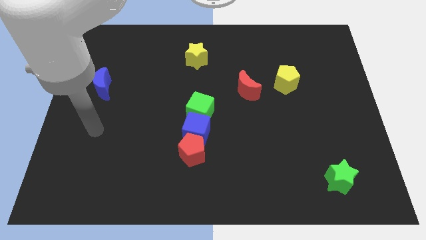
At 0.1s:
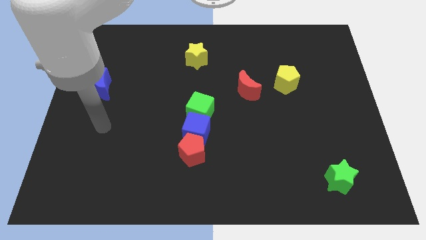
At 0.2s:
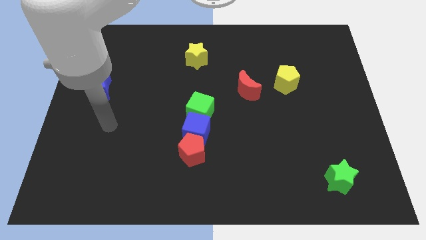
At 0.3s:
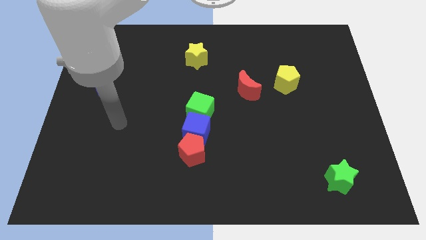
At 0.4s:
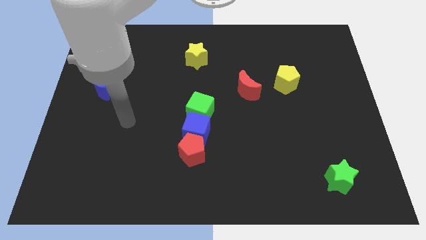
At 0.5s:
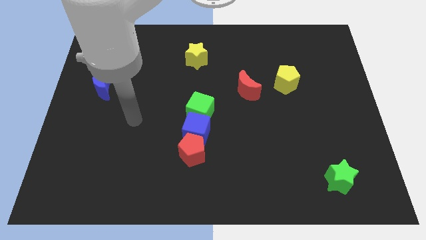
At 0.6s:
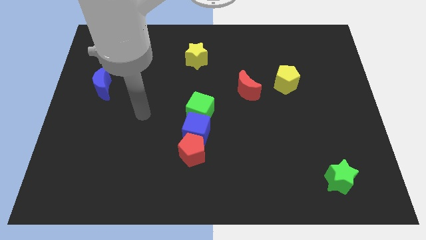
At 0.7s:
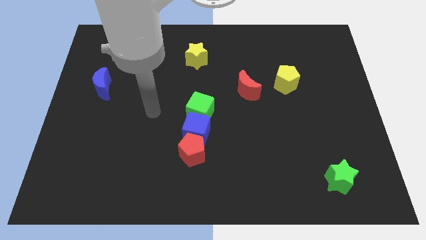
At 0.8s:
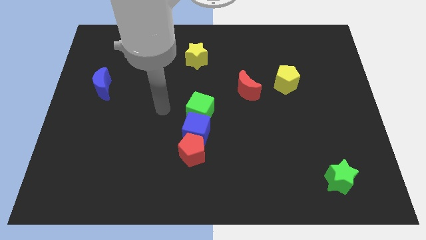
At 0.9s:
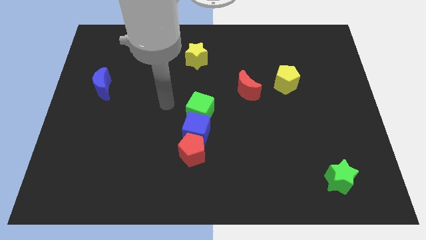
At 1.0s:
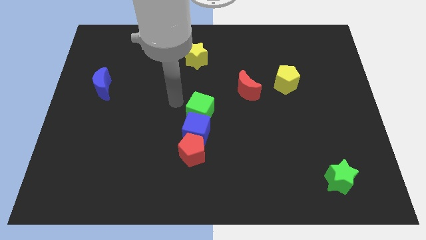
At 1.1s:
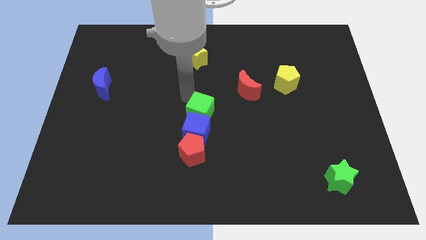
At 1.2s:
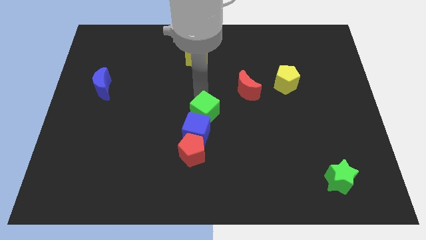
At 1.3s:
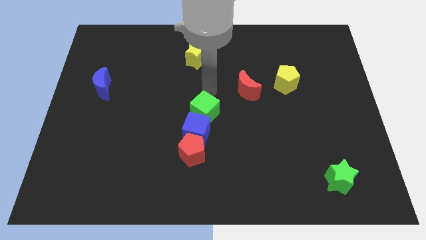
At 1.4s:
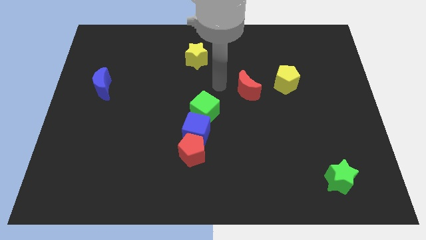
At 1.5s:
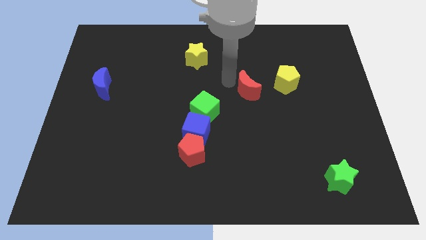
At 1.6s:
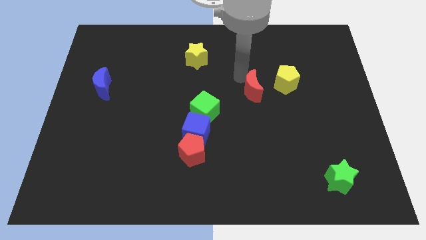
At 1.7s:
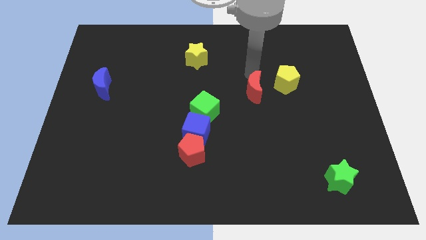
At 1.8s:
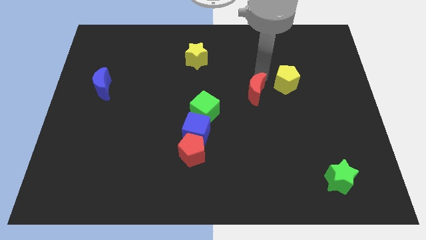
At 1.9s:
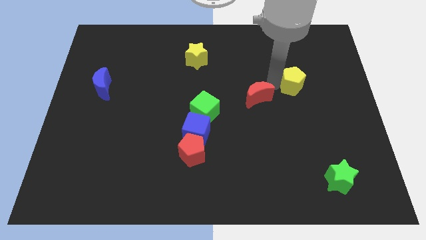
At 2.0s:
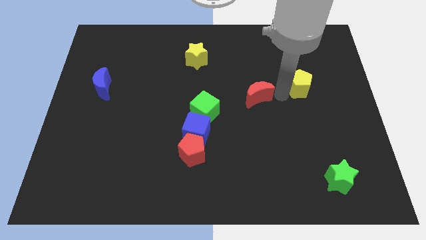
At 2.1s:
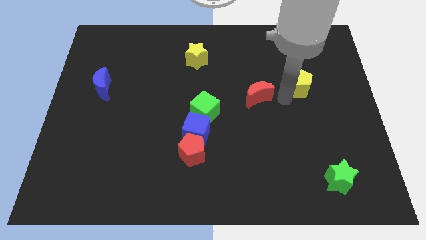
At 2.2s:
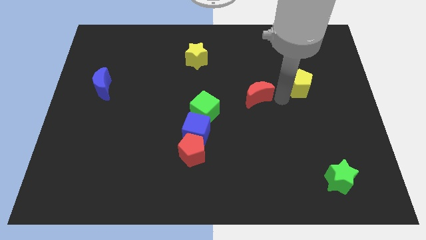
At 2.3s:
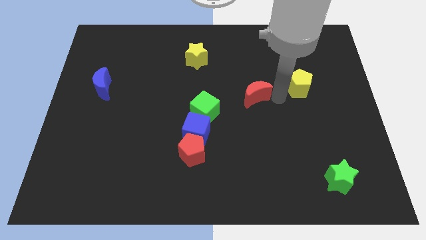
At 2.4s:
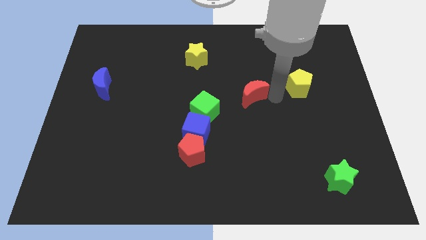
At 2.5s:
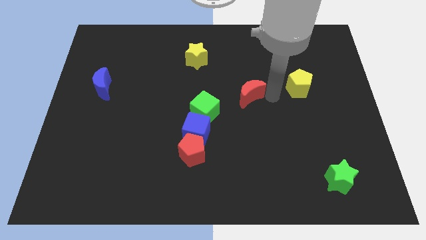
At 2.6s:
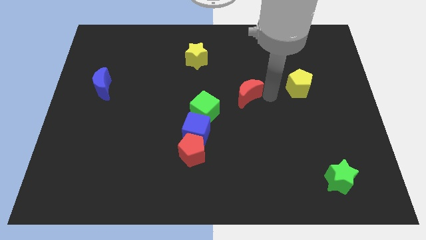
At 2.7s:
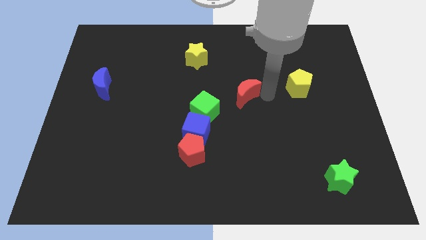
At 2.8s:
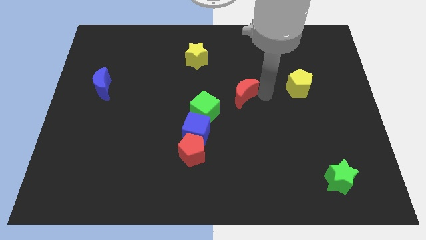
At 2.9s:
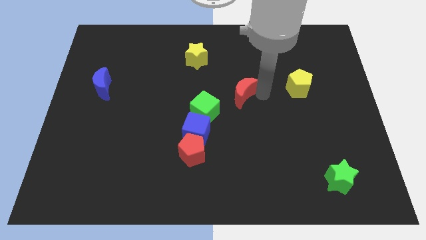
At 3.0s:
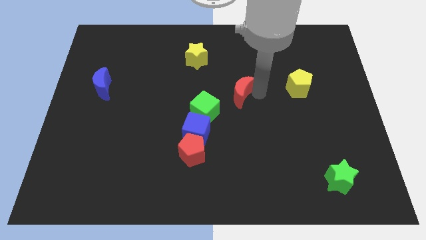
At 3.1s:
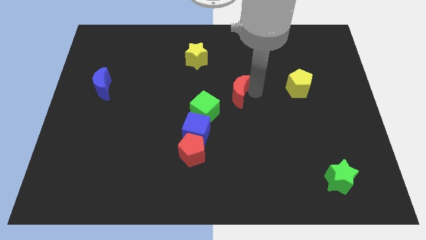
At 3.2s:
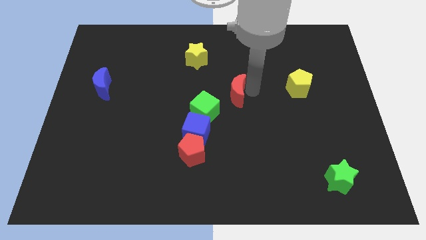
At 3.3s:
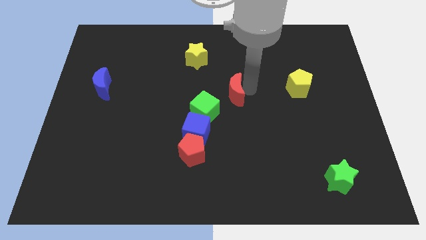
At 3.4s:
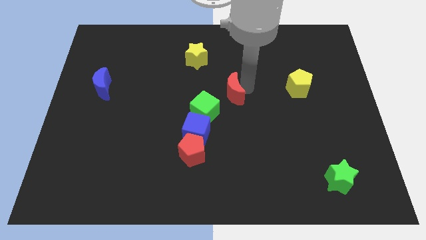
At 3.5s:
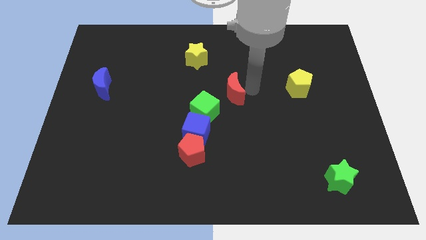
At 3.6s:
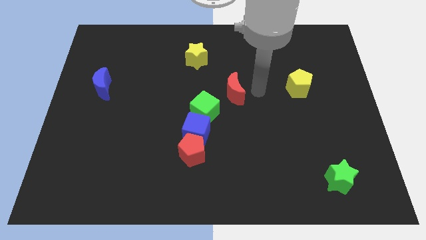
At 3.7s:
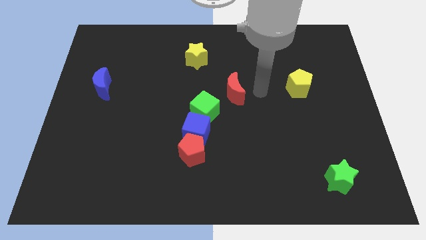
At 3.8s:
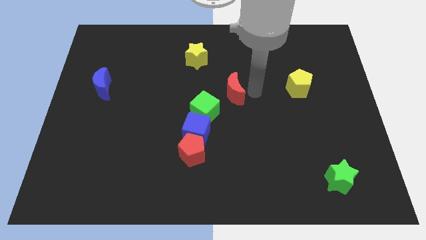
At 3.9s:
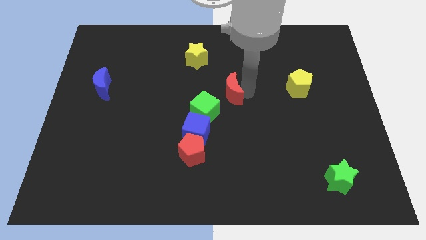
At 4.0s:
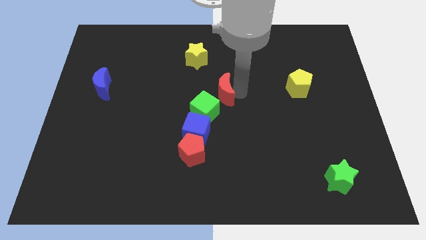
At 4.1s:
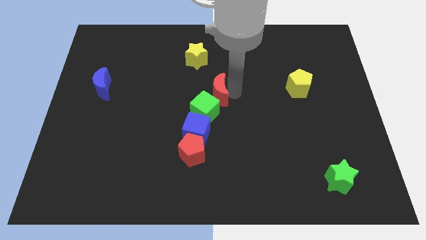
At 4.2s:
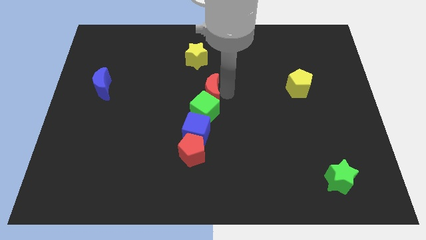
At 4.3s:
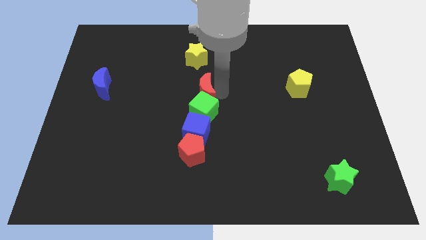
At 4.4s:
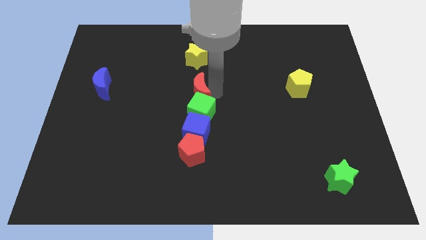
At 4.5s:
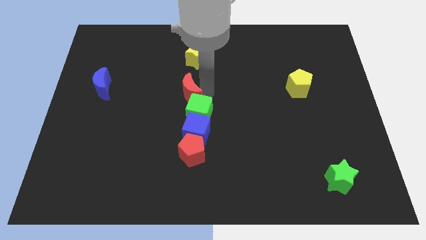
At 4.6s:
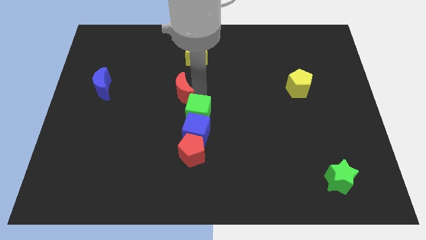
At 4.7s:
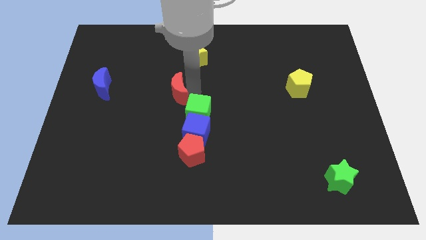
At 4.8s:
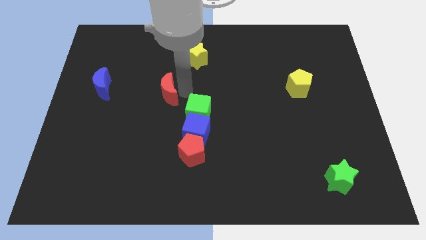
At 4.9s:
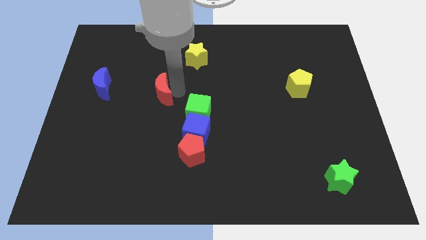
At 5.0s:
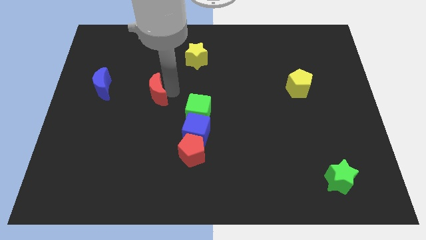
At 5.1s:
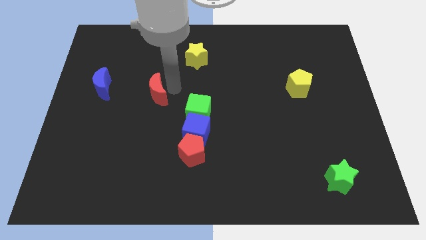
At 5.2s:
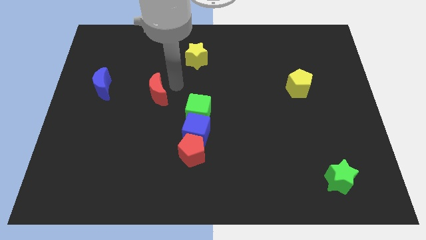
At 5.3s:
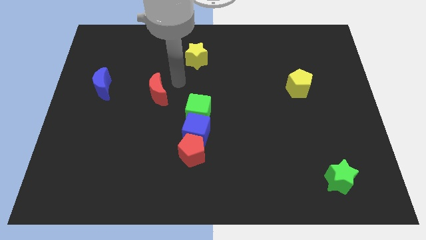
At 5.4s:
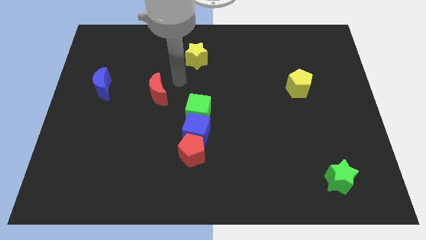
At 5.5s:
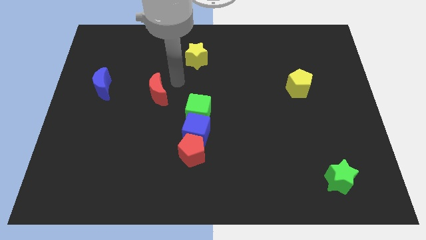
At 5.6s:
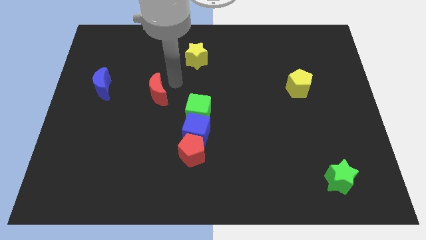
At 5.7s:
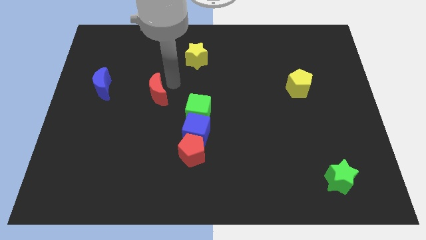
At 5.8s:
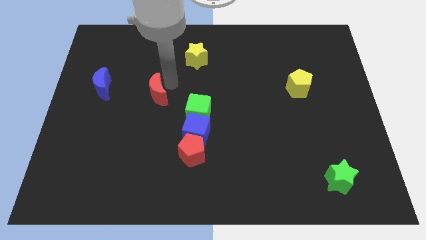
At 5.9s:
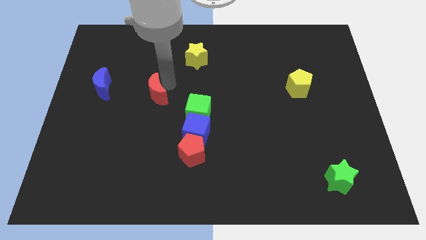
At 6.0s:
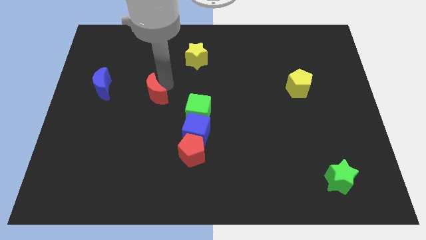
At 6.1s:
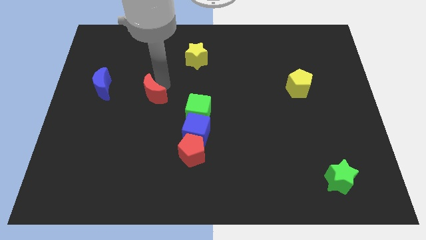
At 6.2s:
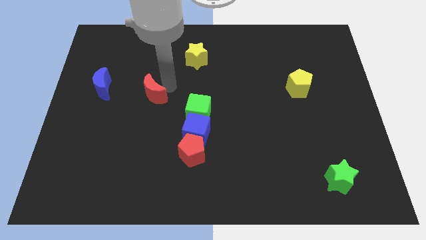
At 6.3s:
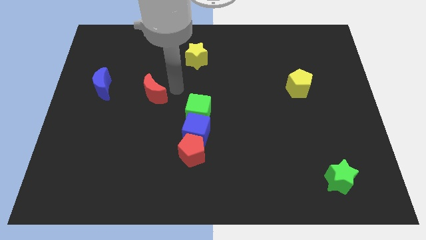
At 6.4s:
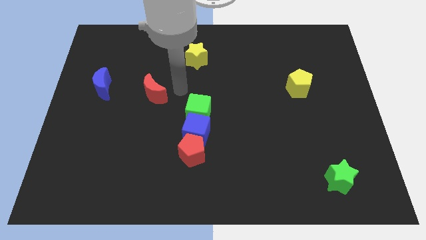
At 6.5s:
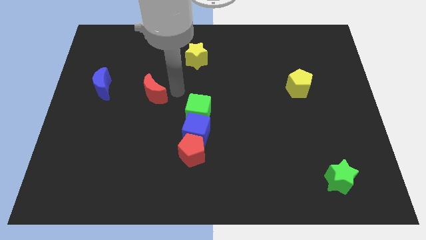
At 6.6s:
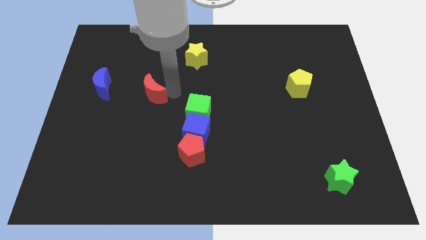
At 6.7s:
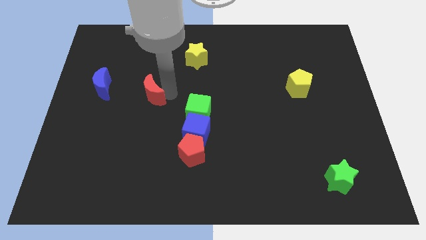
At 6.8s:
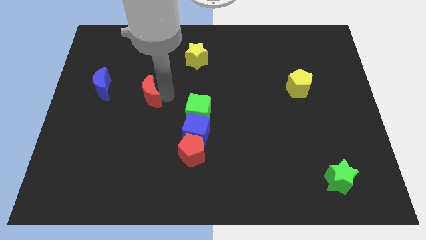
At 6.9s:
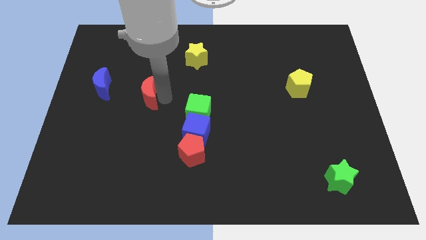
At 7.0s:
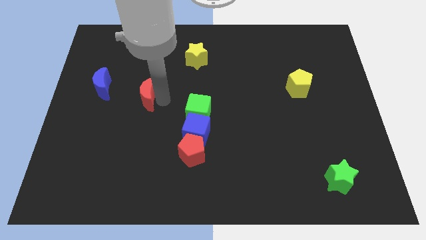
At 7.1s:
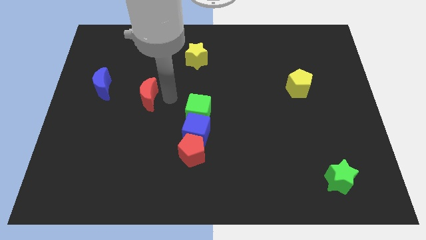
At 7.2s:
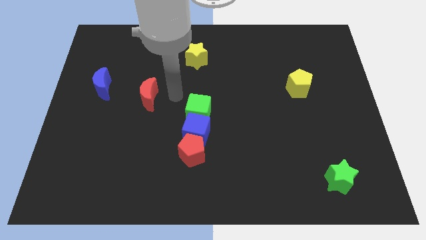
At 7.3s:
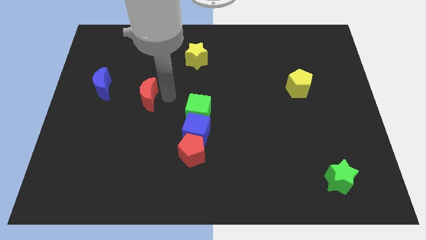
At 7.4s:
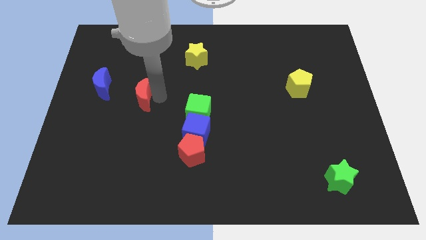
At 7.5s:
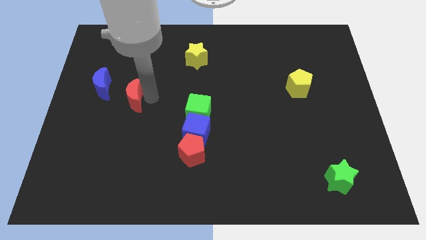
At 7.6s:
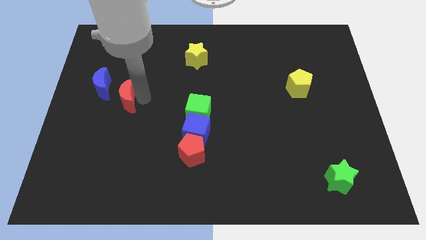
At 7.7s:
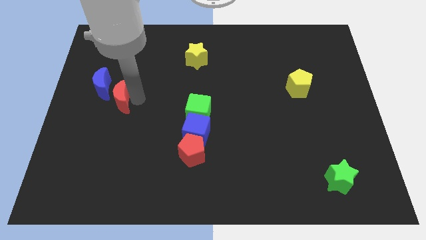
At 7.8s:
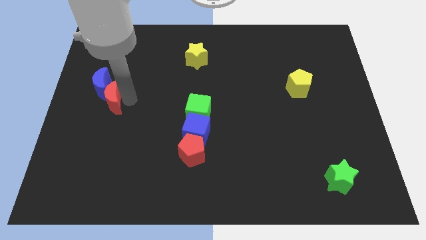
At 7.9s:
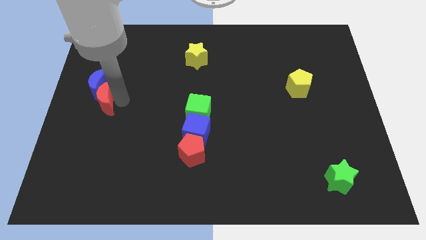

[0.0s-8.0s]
push the red moon to the center left
